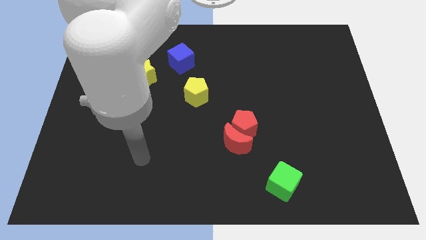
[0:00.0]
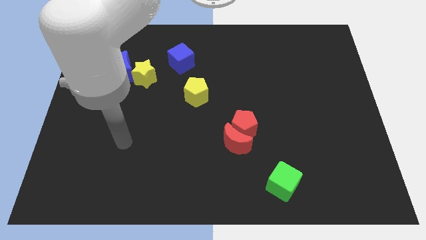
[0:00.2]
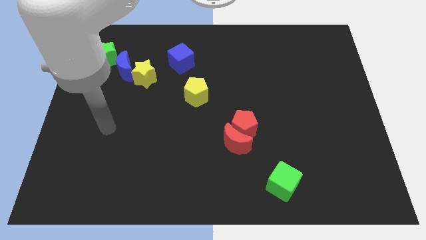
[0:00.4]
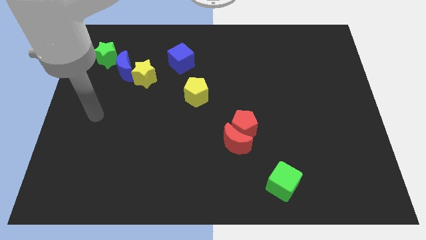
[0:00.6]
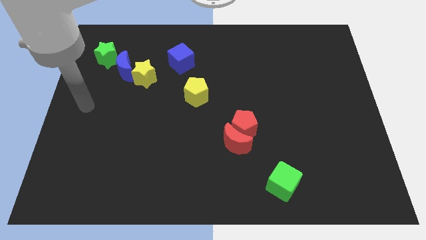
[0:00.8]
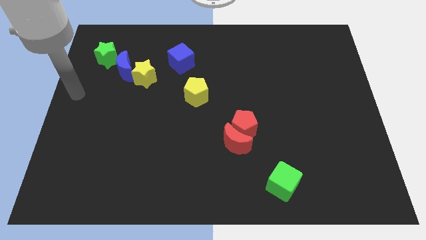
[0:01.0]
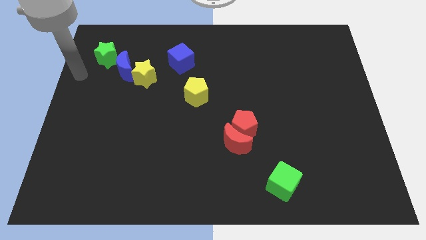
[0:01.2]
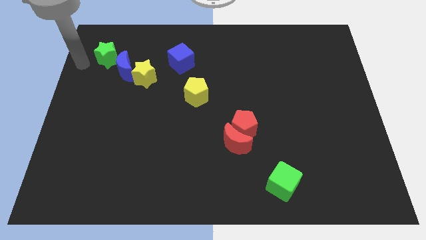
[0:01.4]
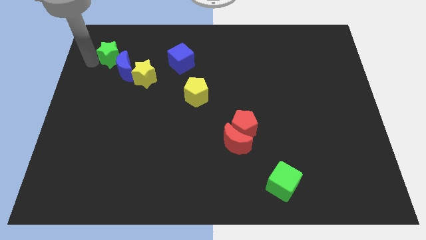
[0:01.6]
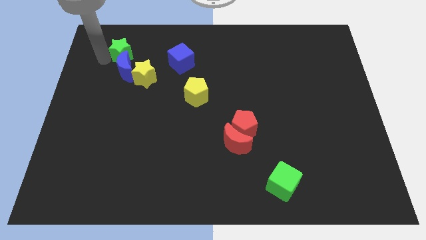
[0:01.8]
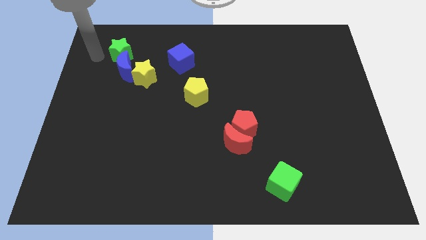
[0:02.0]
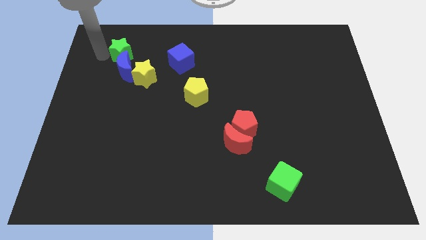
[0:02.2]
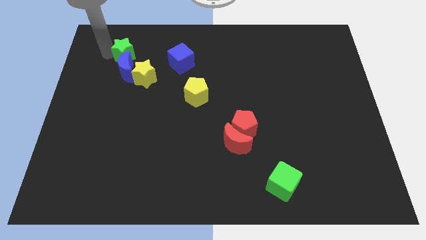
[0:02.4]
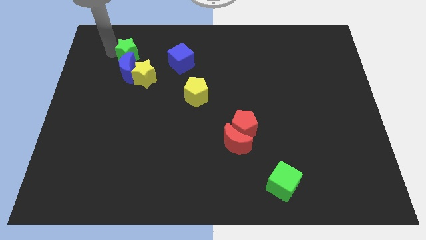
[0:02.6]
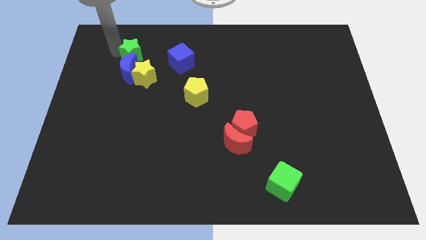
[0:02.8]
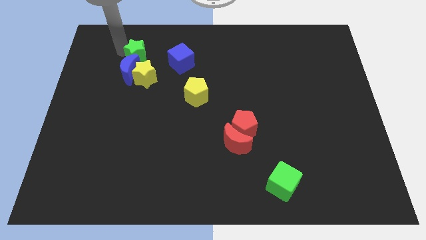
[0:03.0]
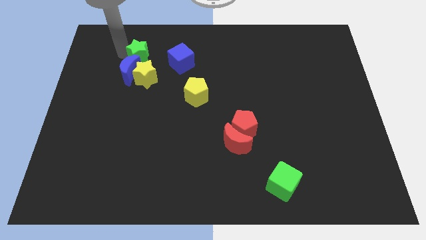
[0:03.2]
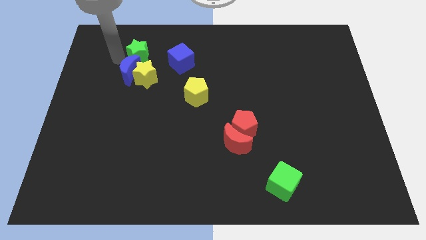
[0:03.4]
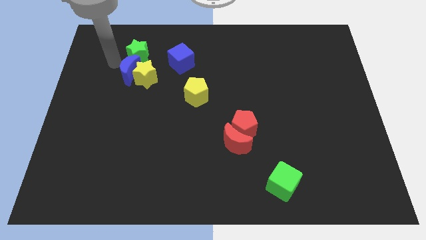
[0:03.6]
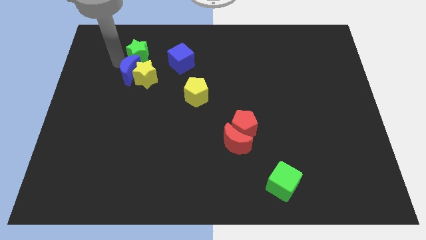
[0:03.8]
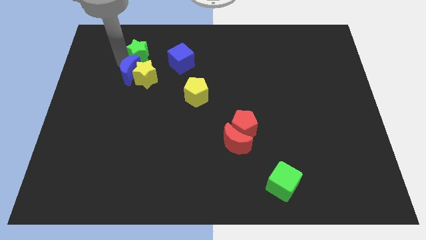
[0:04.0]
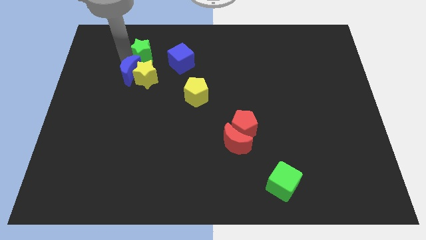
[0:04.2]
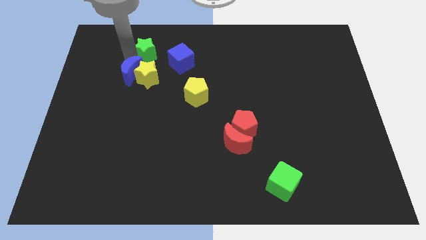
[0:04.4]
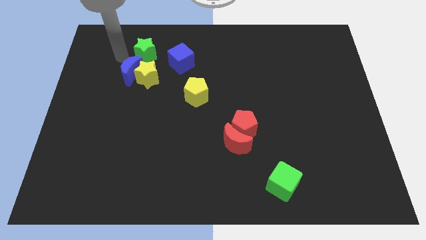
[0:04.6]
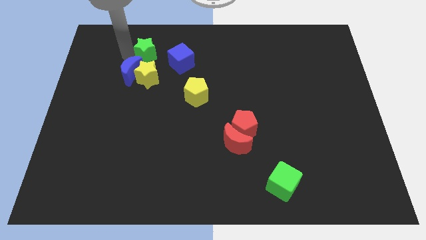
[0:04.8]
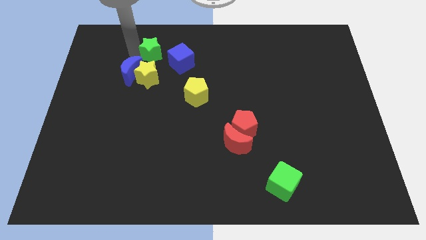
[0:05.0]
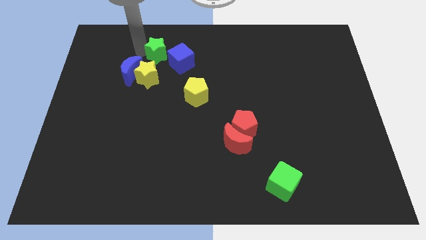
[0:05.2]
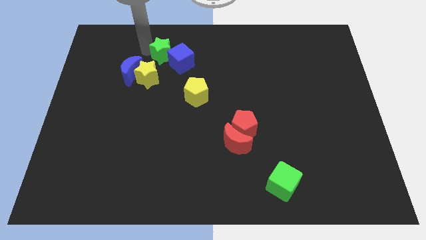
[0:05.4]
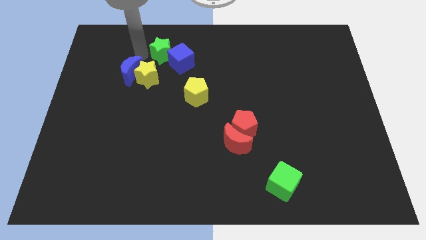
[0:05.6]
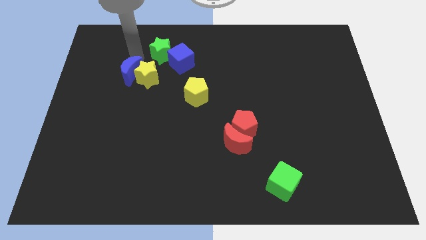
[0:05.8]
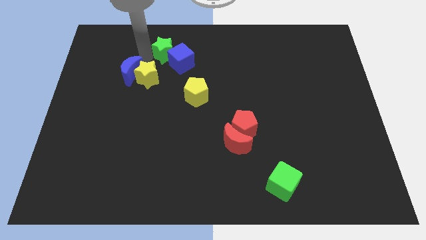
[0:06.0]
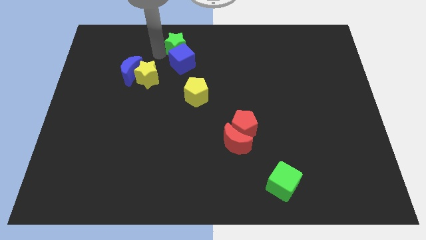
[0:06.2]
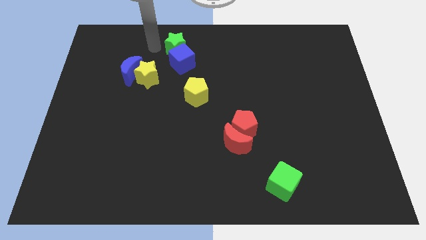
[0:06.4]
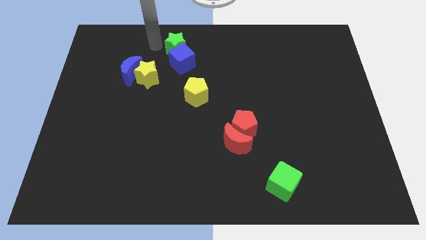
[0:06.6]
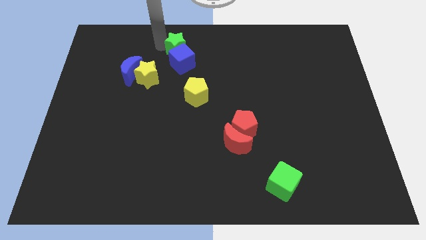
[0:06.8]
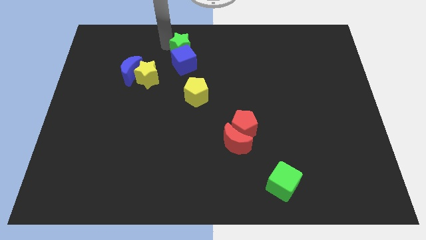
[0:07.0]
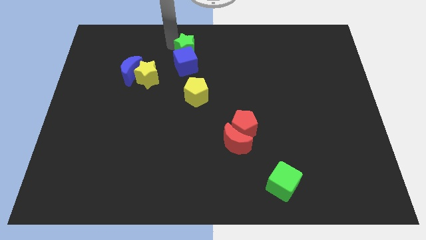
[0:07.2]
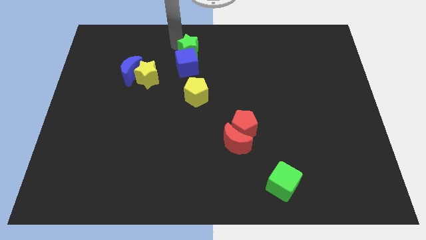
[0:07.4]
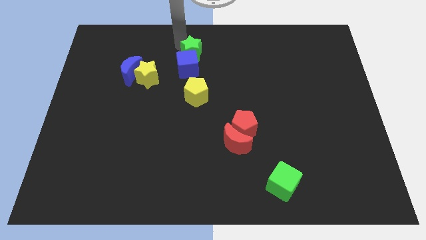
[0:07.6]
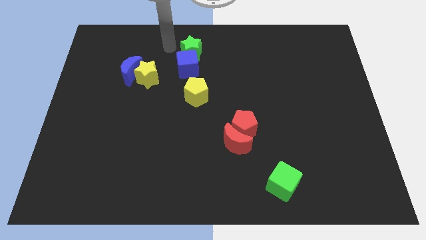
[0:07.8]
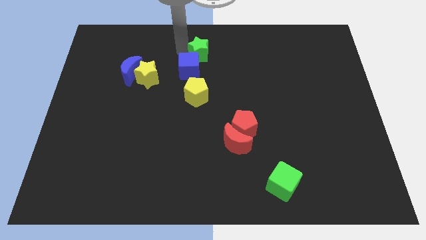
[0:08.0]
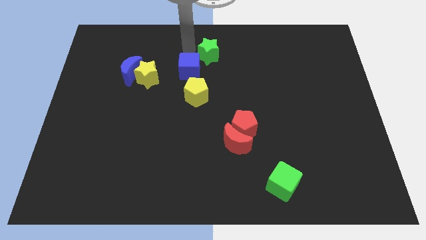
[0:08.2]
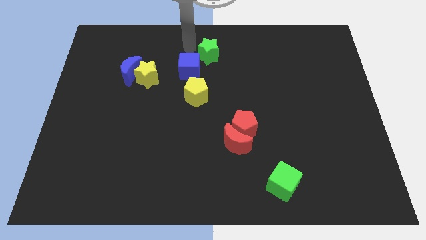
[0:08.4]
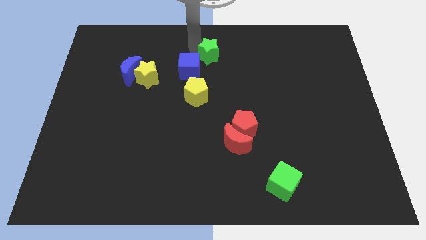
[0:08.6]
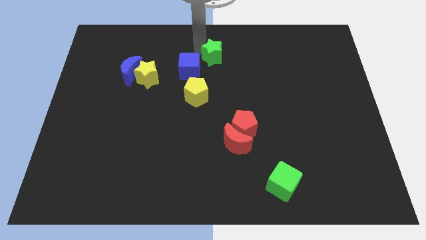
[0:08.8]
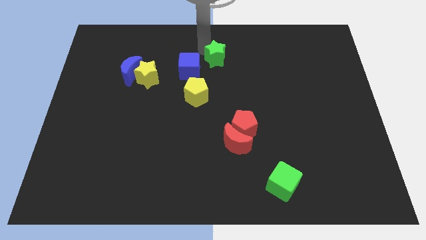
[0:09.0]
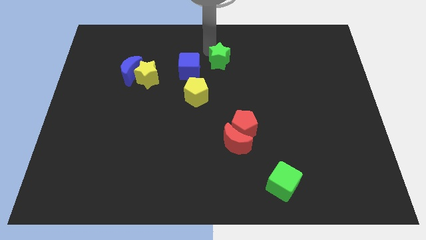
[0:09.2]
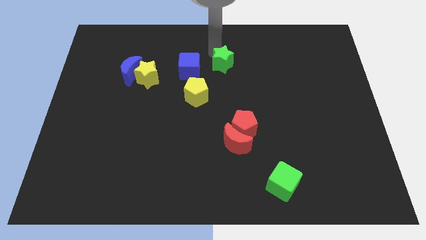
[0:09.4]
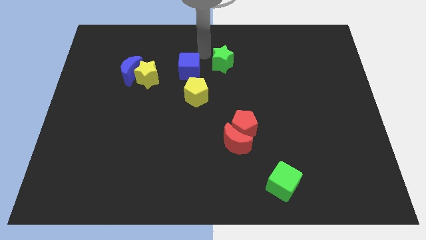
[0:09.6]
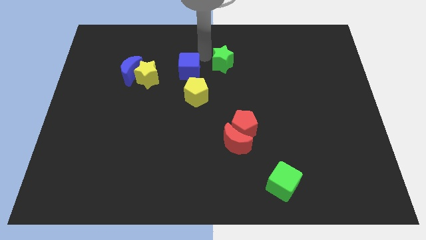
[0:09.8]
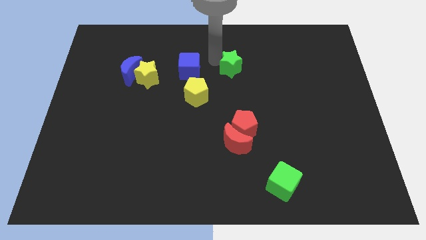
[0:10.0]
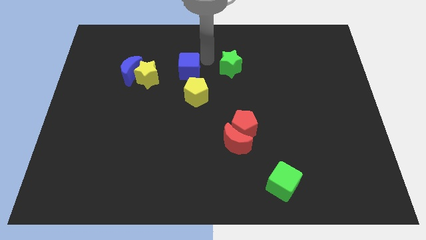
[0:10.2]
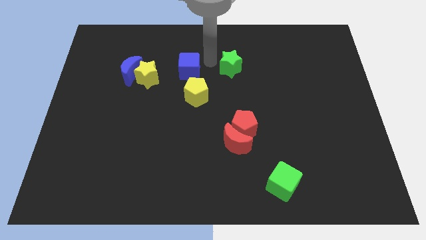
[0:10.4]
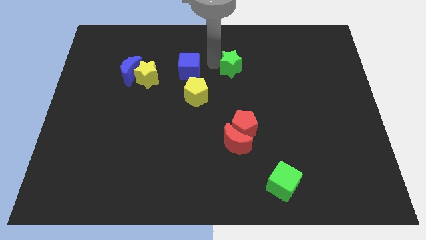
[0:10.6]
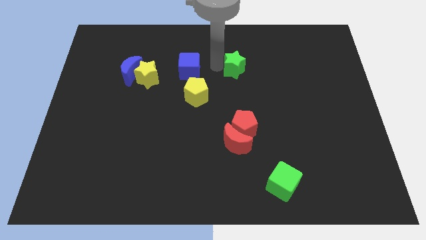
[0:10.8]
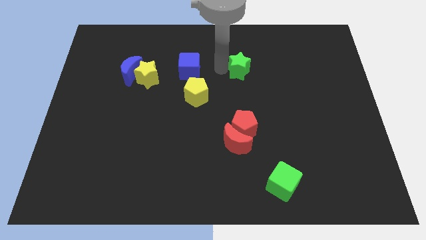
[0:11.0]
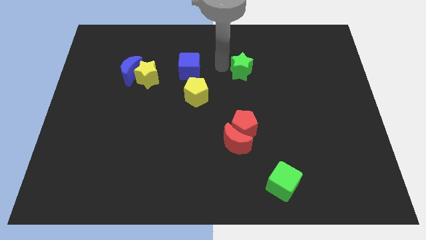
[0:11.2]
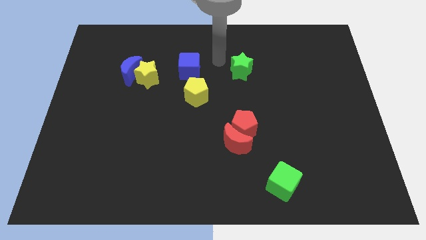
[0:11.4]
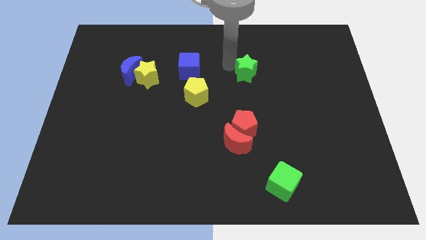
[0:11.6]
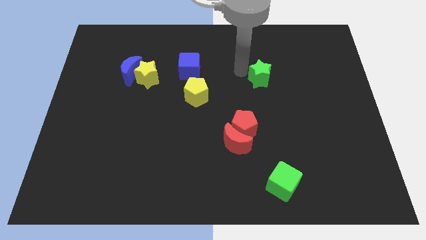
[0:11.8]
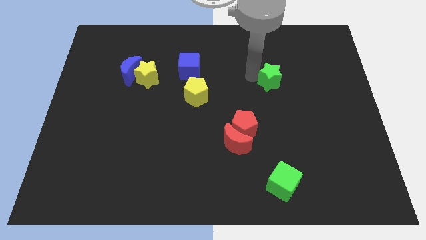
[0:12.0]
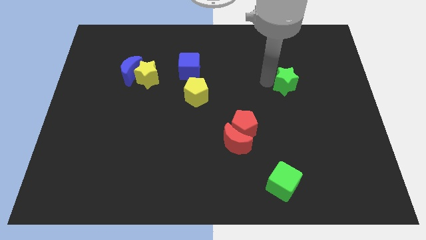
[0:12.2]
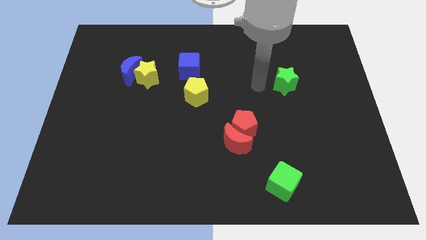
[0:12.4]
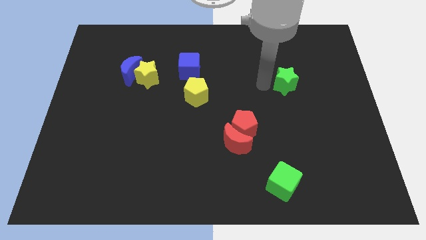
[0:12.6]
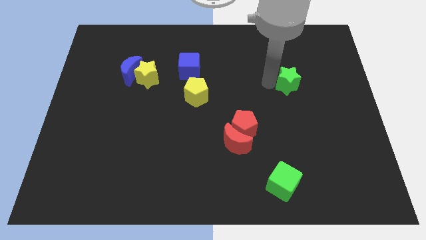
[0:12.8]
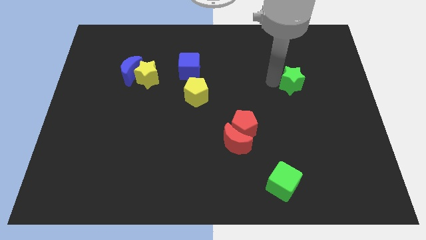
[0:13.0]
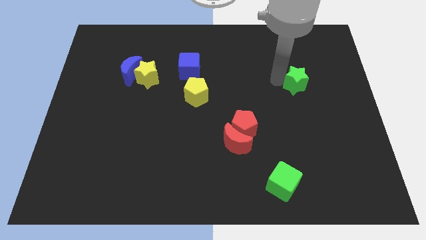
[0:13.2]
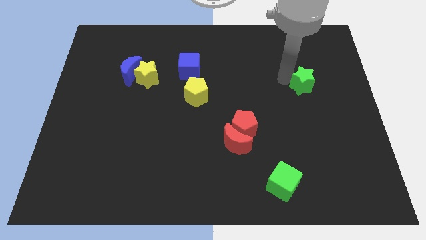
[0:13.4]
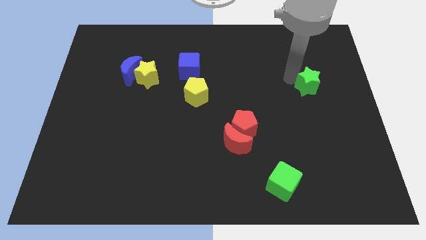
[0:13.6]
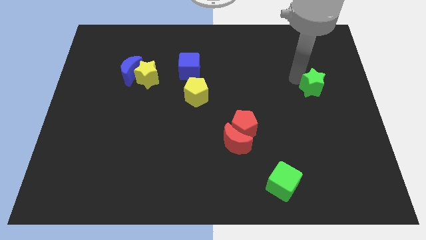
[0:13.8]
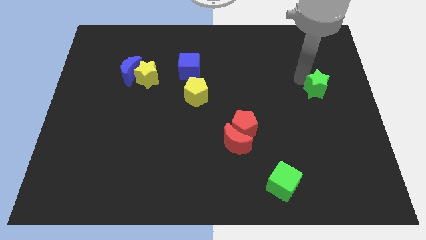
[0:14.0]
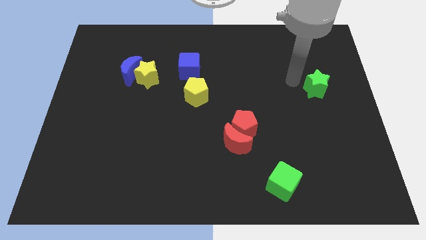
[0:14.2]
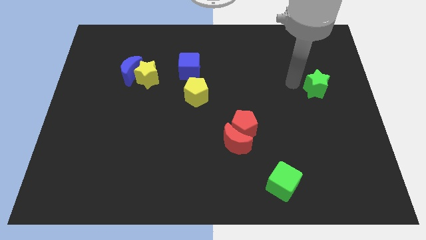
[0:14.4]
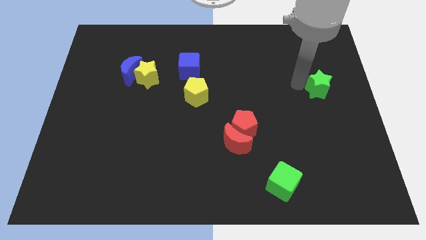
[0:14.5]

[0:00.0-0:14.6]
slide the green star to the center right
